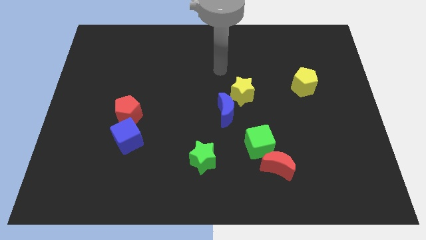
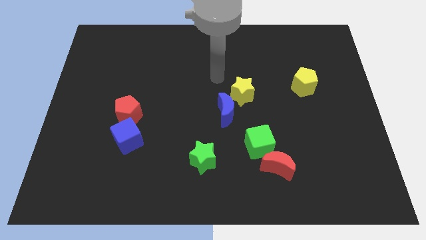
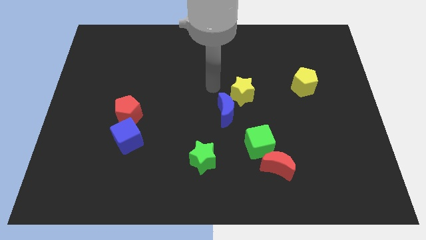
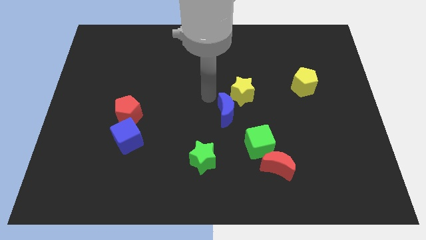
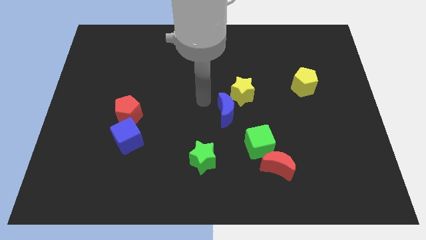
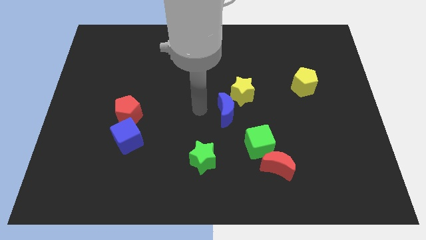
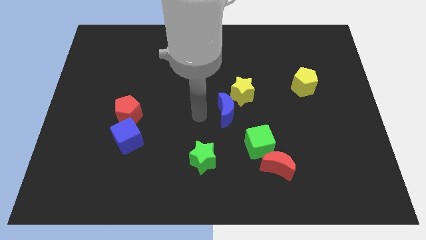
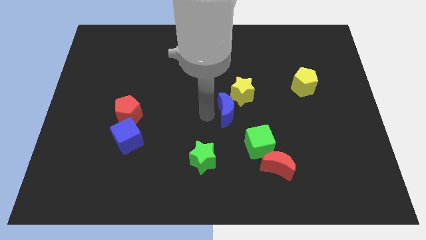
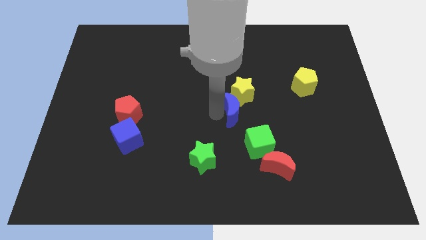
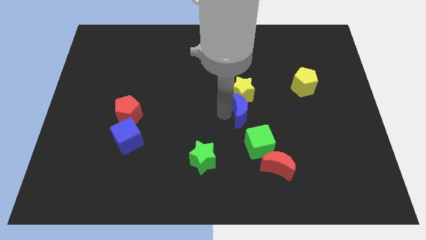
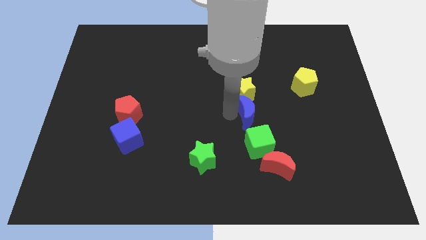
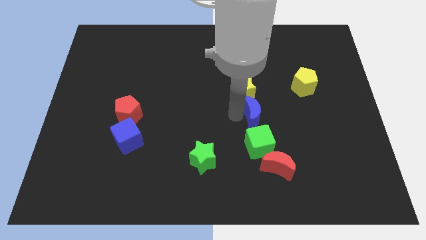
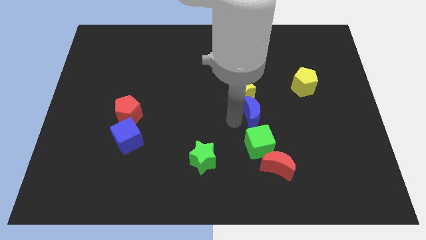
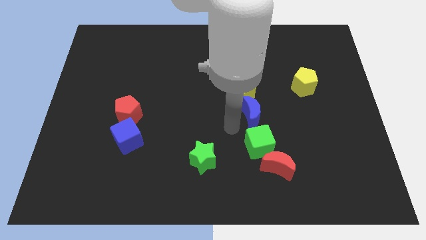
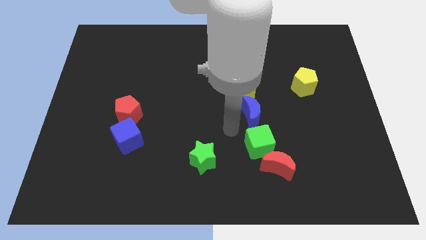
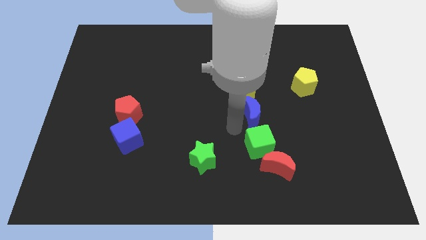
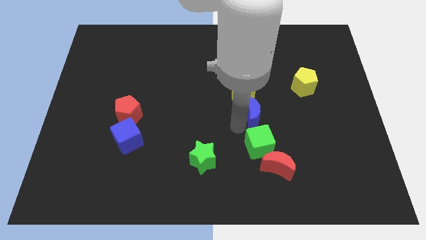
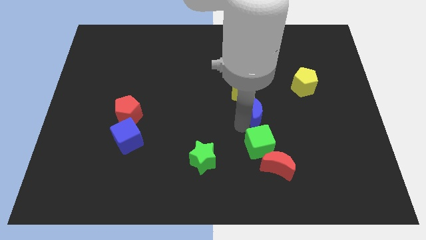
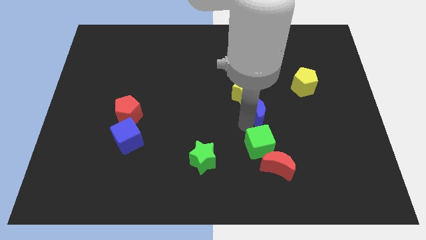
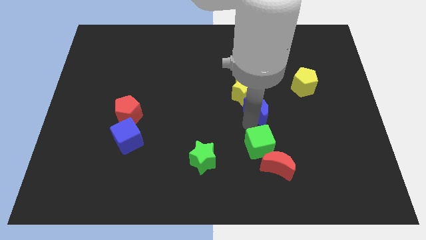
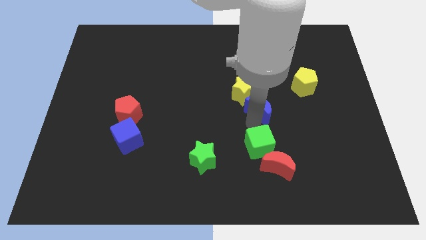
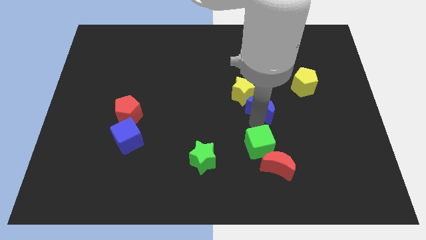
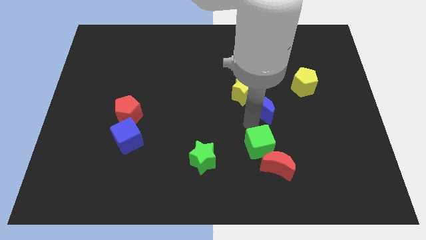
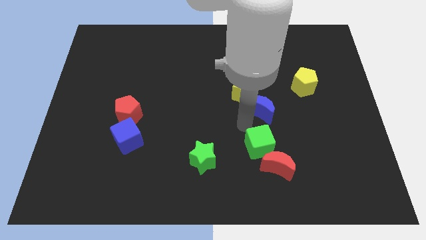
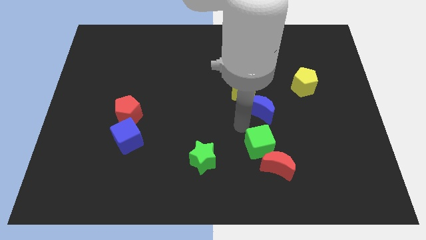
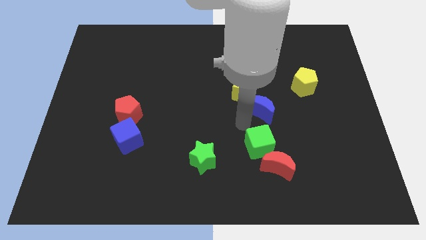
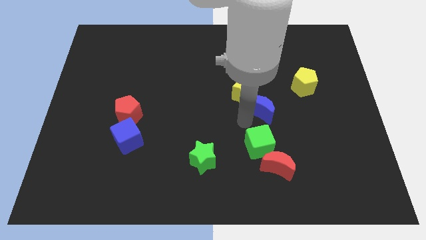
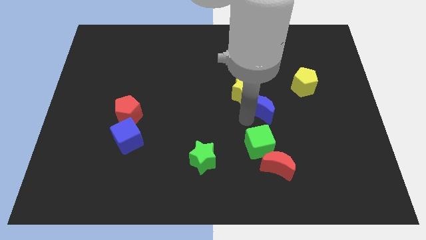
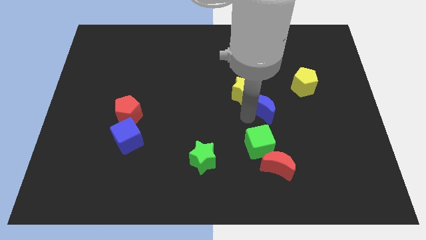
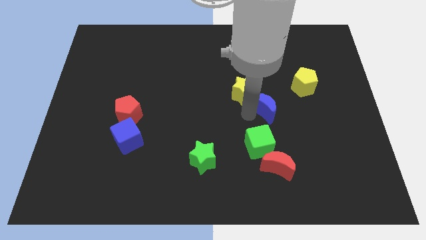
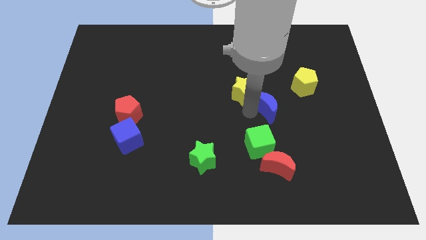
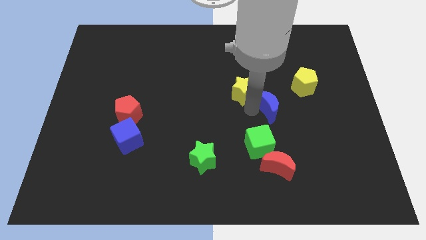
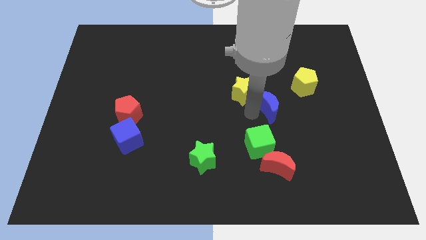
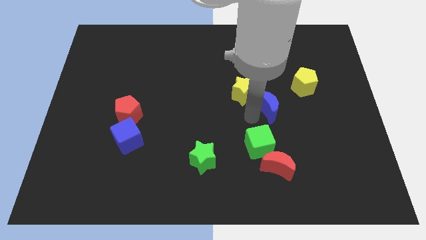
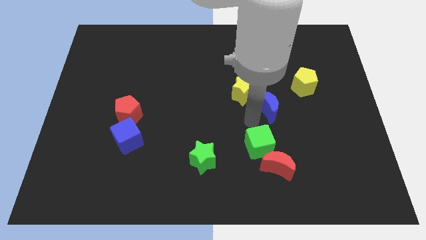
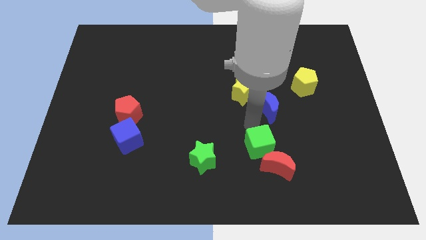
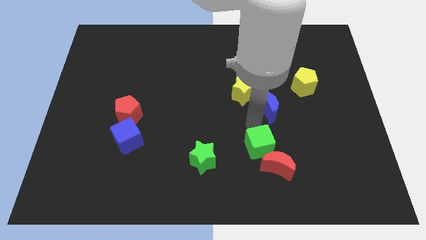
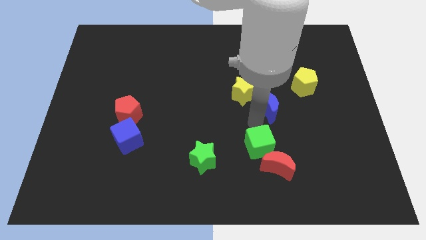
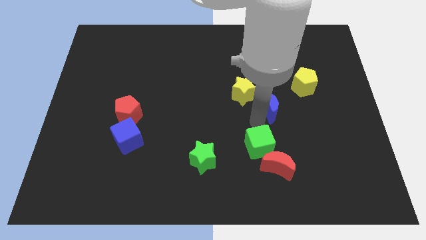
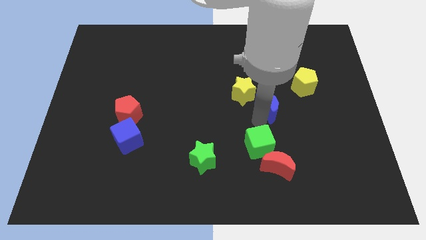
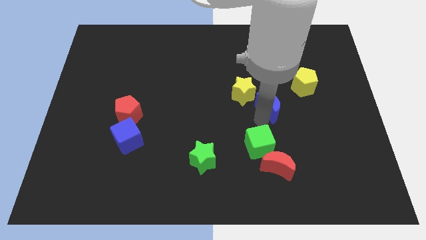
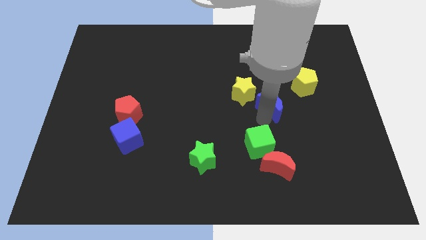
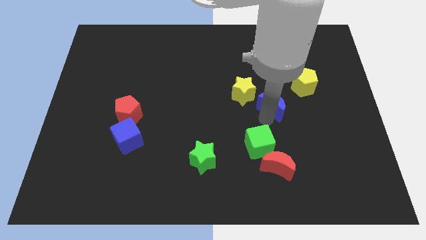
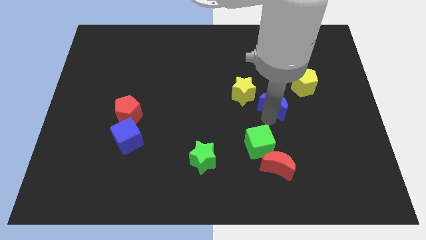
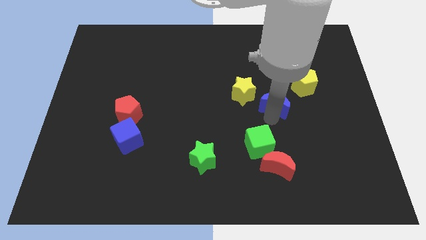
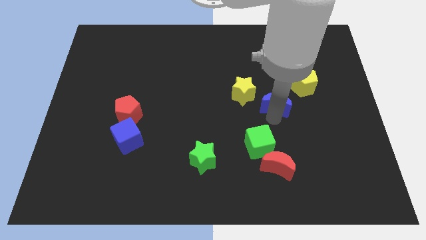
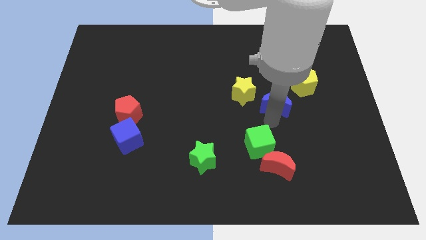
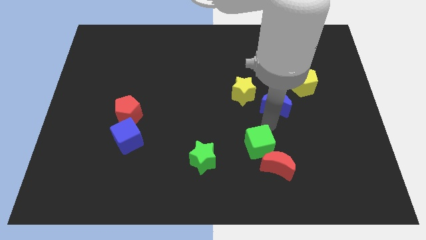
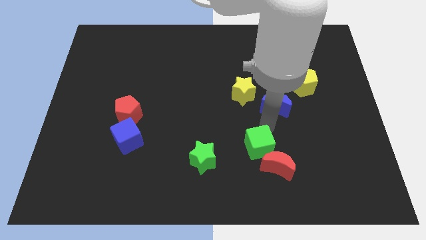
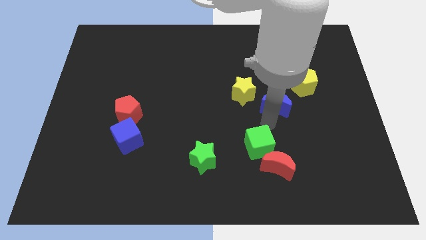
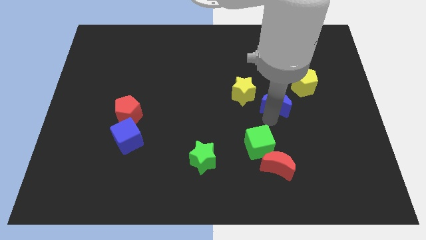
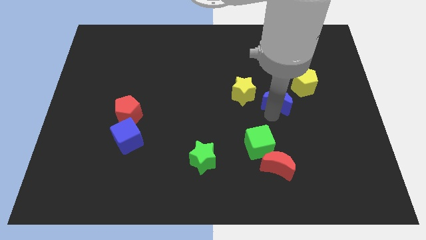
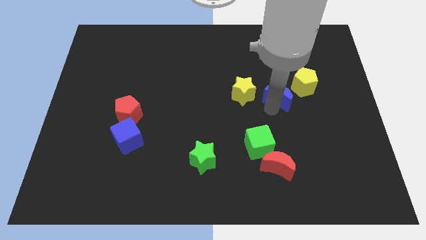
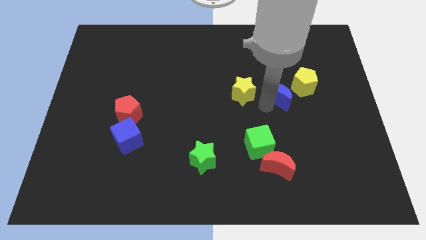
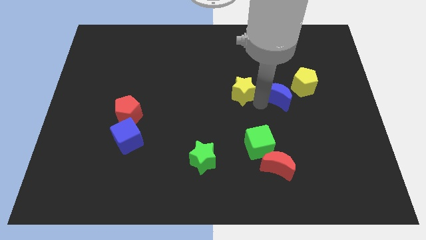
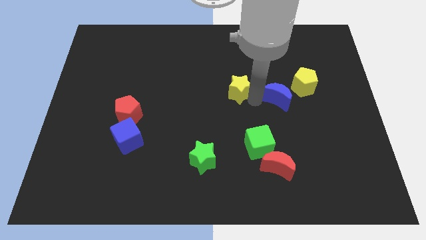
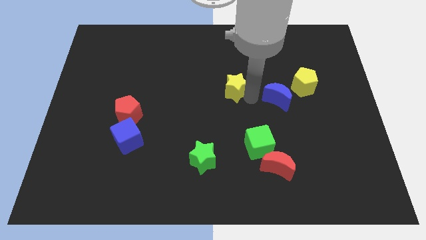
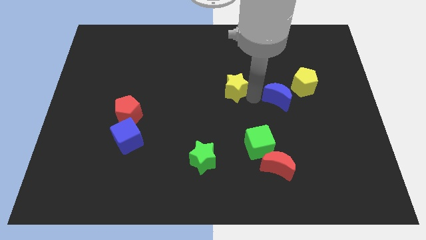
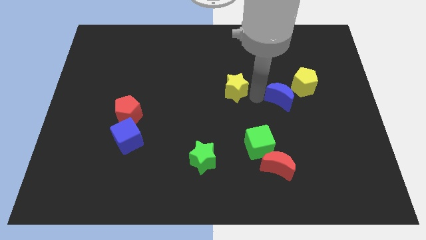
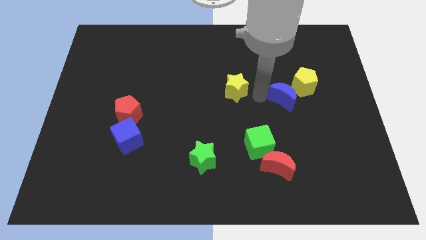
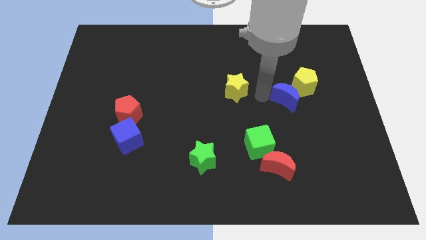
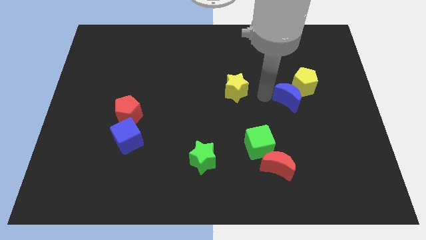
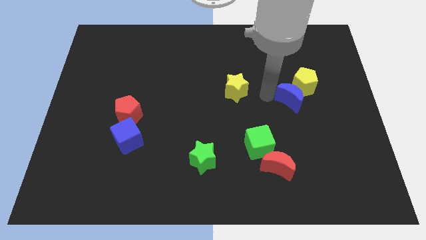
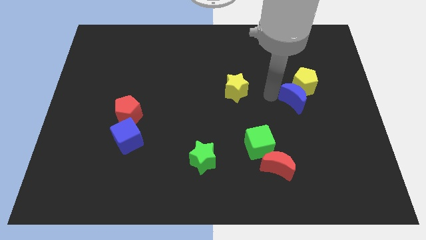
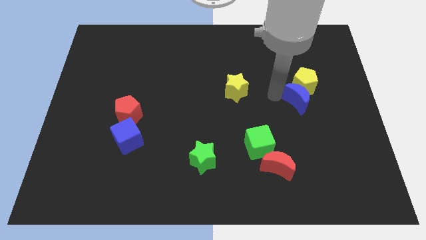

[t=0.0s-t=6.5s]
put the blue moon to the bottom right of the yellow pentagon

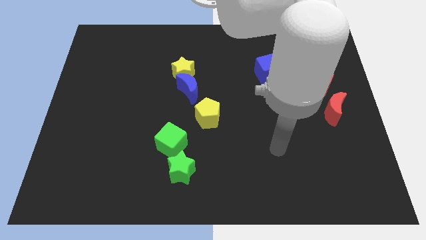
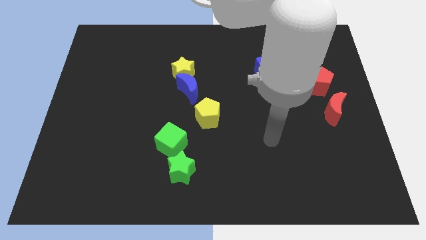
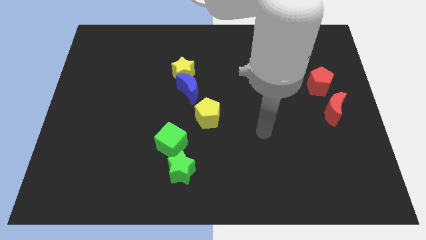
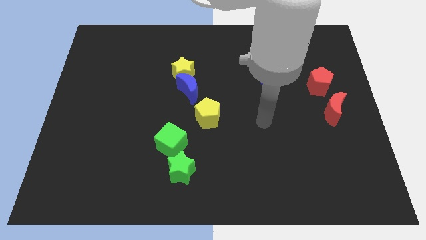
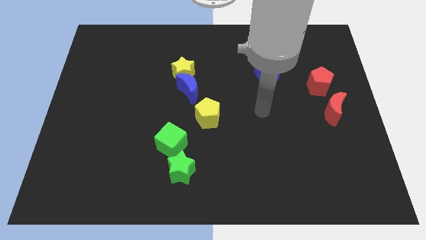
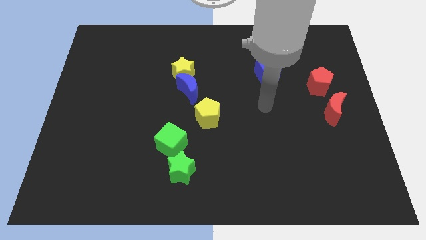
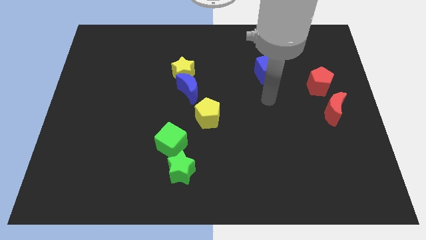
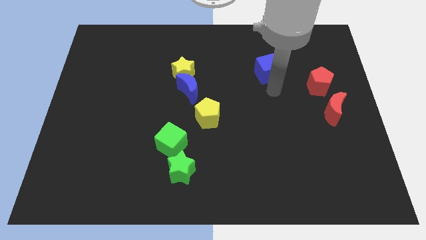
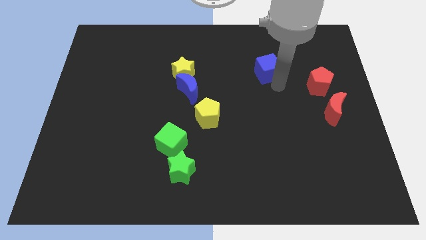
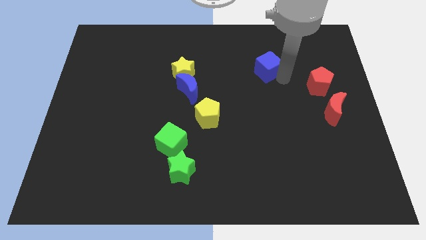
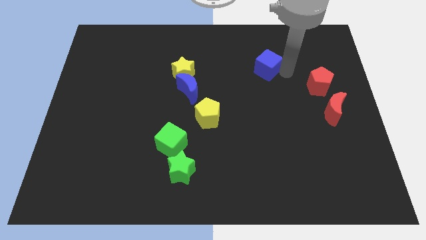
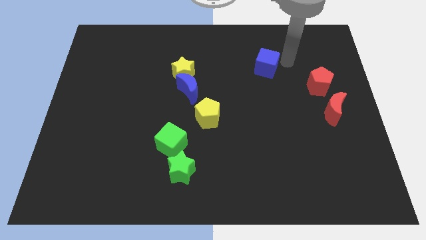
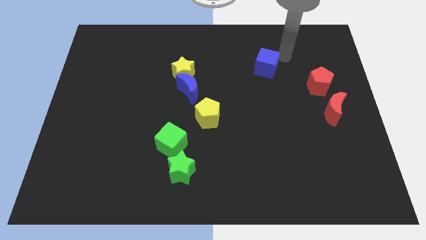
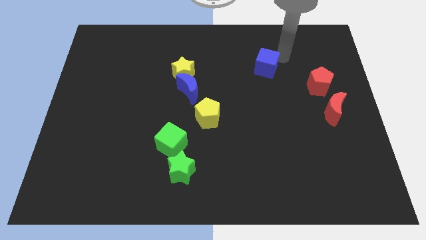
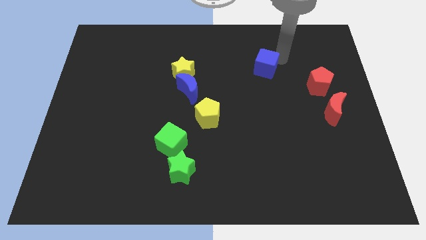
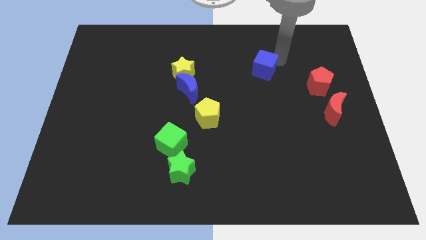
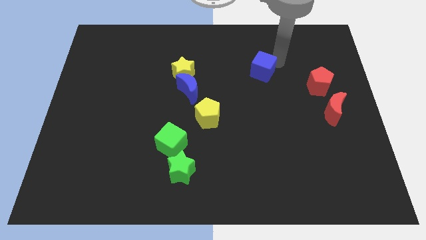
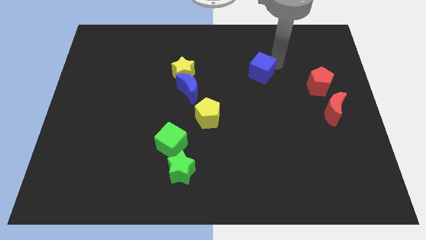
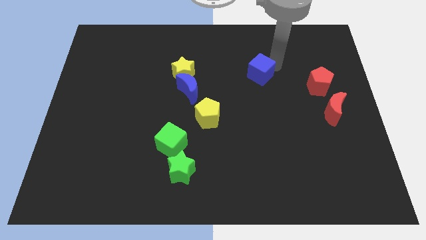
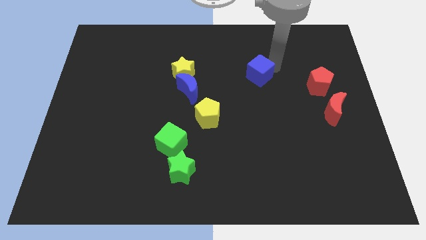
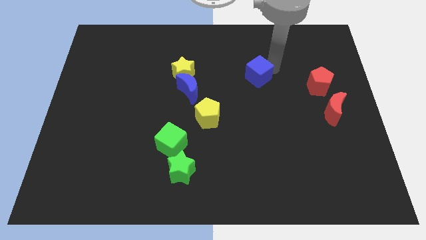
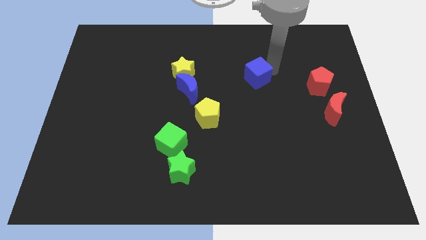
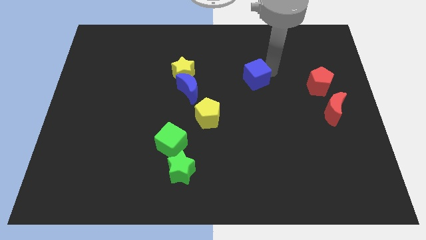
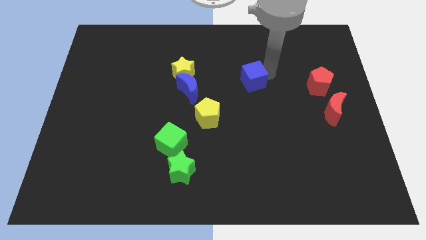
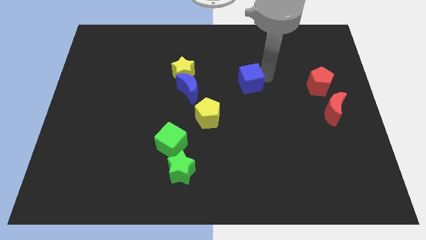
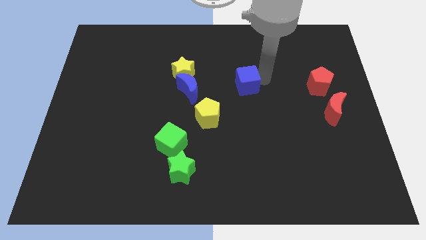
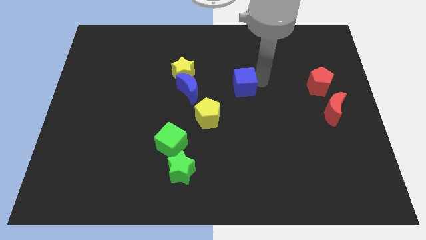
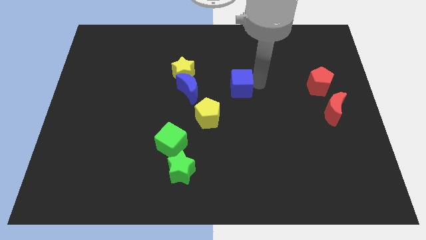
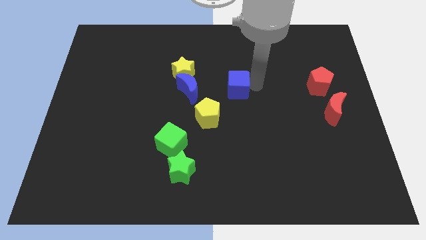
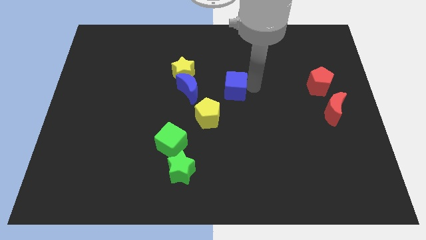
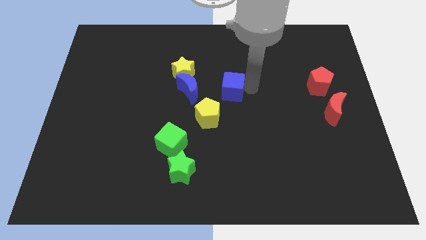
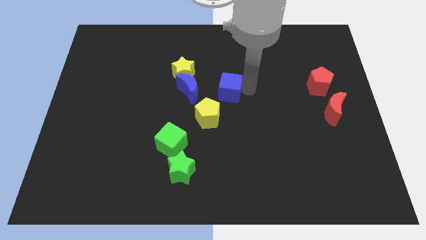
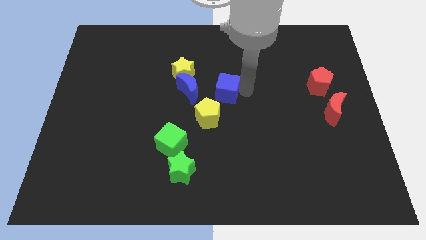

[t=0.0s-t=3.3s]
move the blue cube above the yellow pentagon
